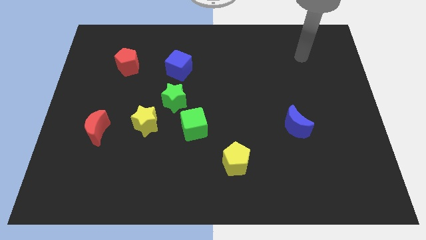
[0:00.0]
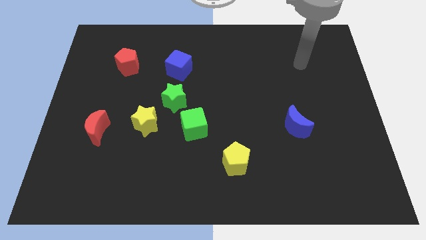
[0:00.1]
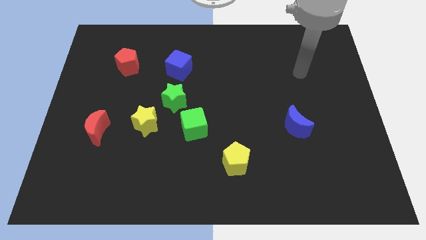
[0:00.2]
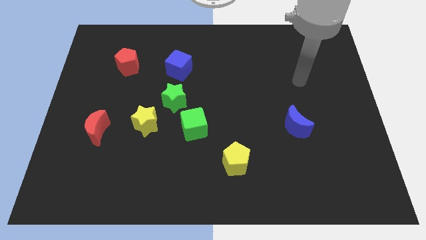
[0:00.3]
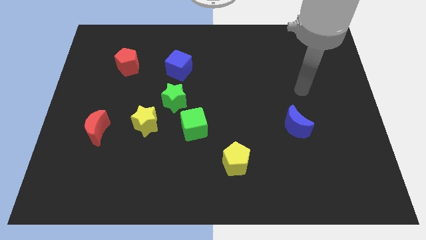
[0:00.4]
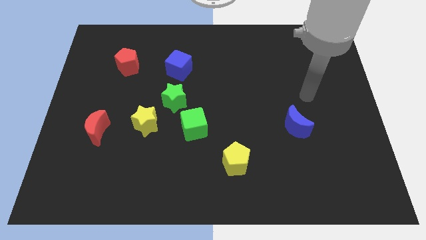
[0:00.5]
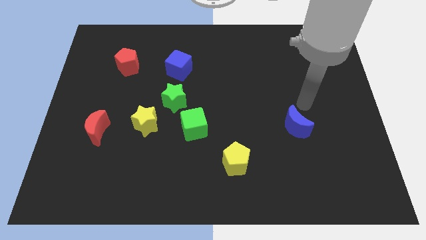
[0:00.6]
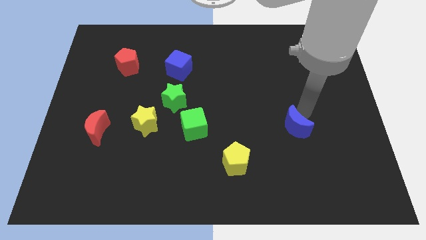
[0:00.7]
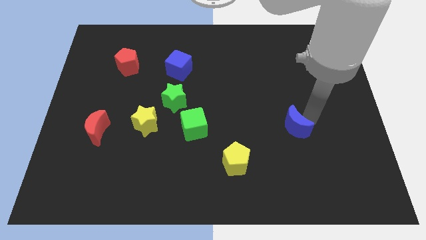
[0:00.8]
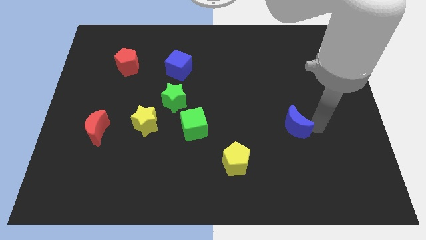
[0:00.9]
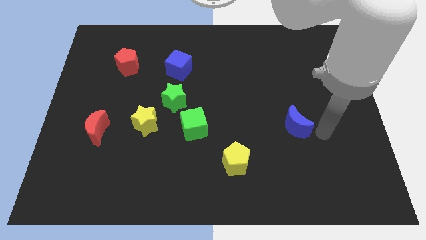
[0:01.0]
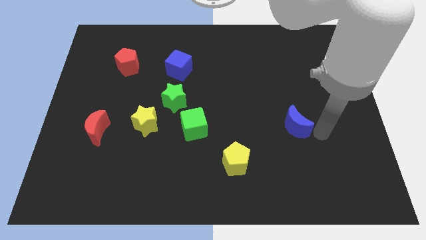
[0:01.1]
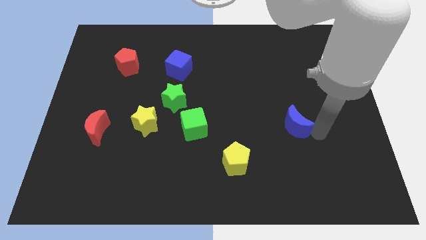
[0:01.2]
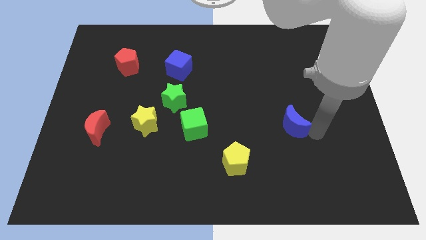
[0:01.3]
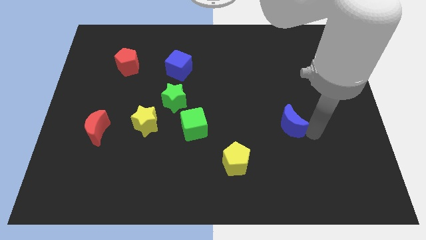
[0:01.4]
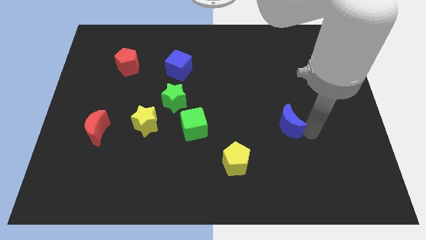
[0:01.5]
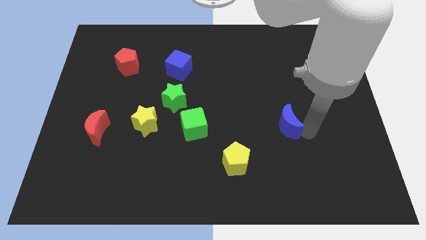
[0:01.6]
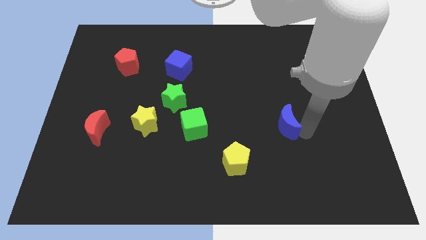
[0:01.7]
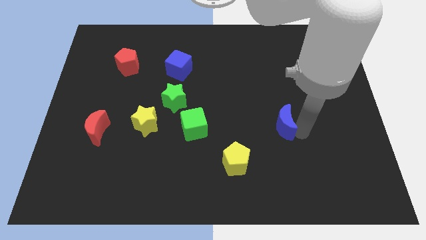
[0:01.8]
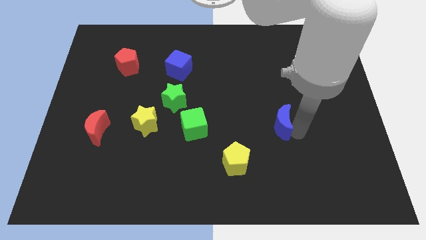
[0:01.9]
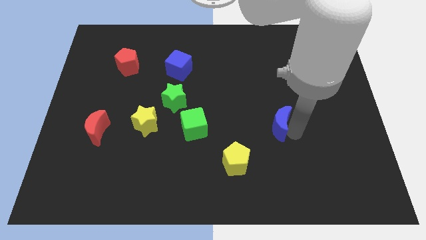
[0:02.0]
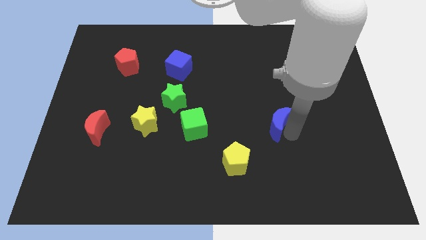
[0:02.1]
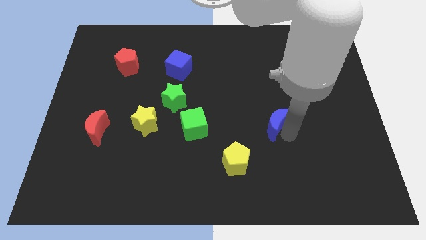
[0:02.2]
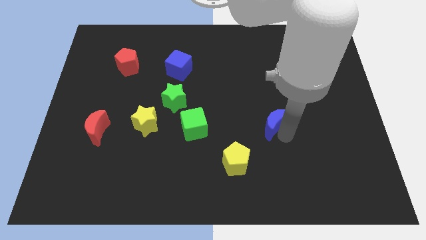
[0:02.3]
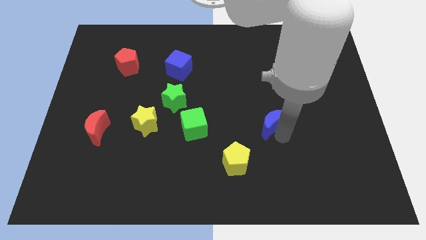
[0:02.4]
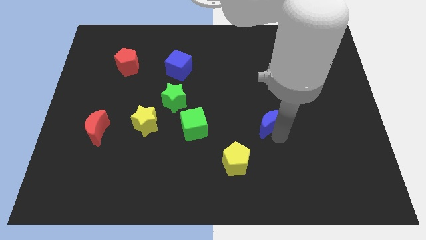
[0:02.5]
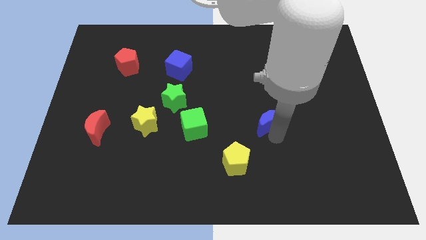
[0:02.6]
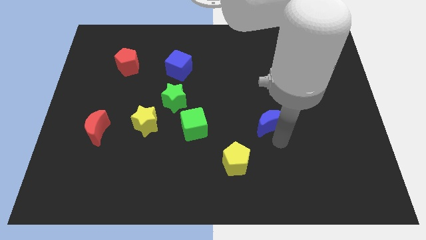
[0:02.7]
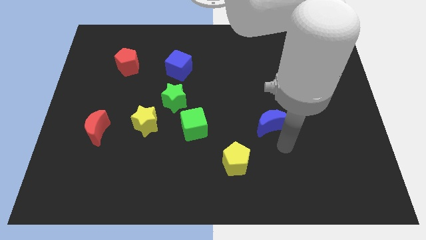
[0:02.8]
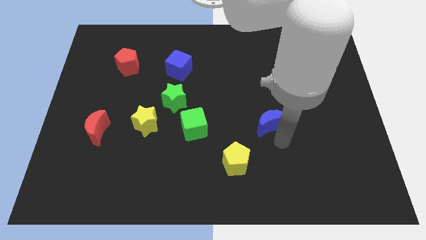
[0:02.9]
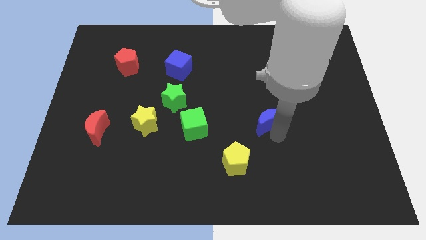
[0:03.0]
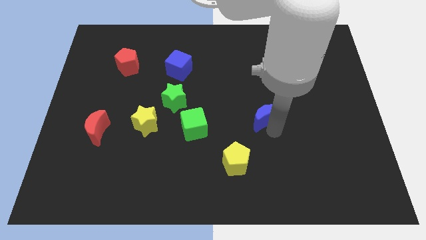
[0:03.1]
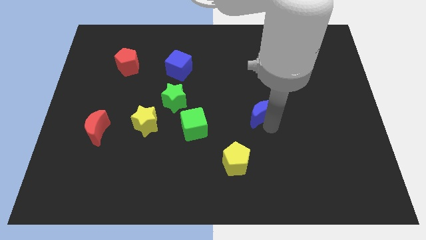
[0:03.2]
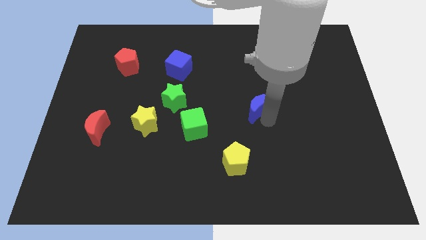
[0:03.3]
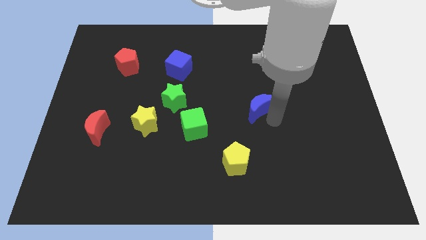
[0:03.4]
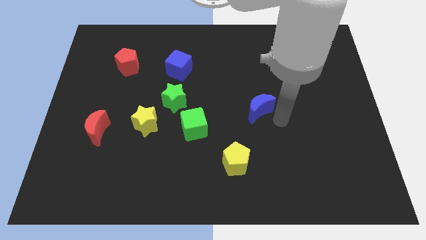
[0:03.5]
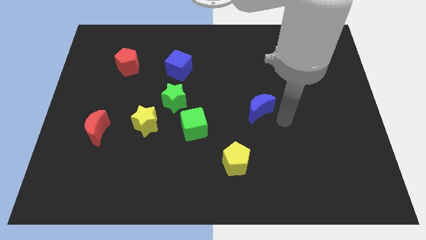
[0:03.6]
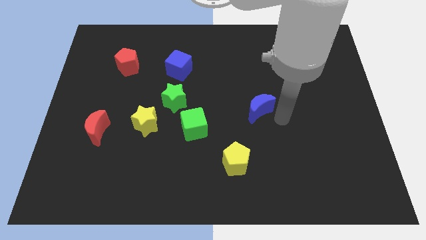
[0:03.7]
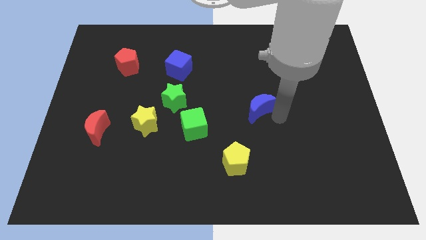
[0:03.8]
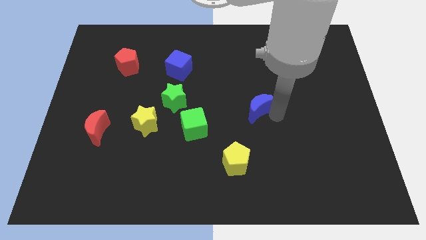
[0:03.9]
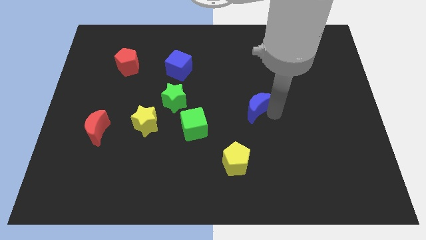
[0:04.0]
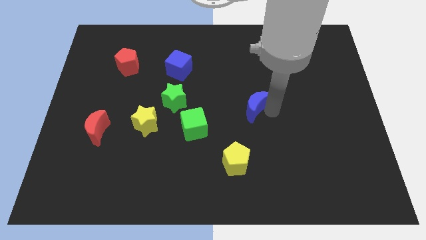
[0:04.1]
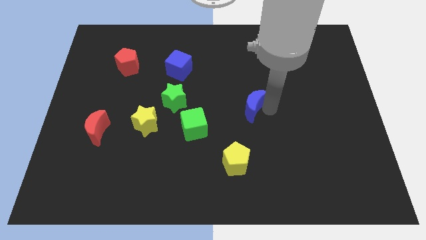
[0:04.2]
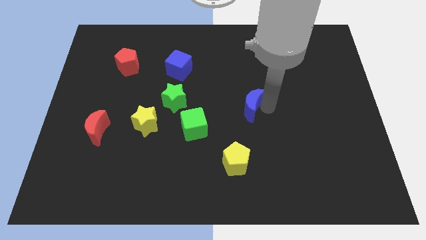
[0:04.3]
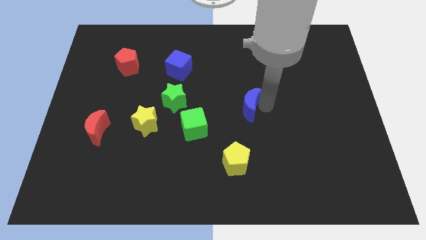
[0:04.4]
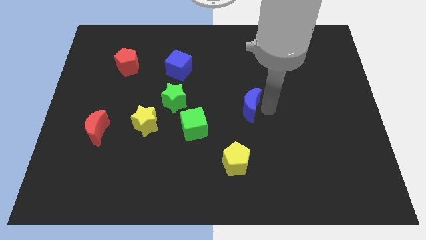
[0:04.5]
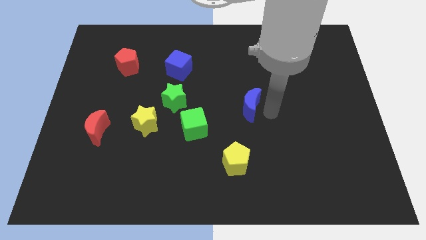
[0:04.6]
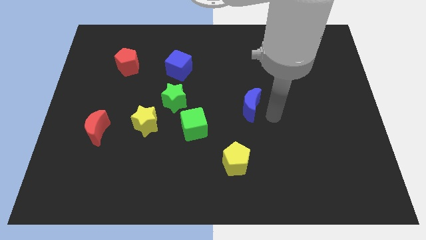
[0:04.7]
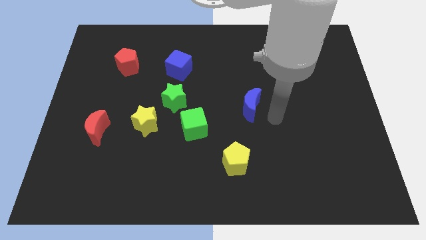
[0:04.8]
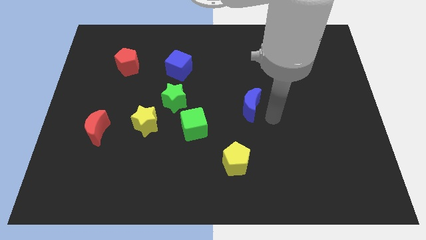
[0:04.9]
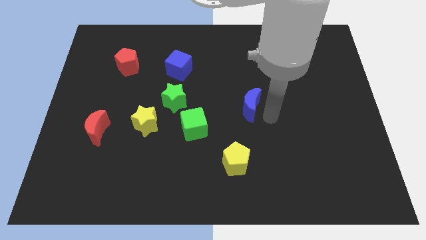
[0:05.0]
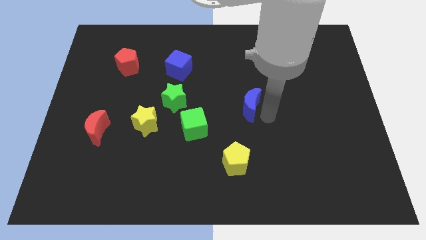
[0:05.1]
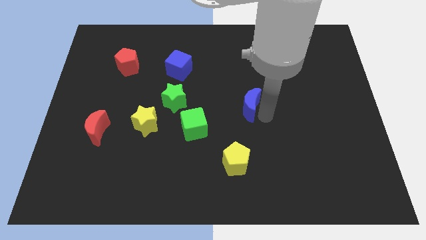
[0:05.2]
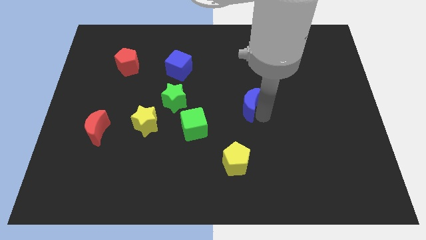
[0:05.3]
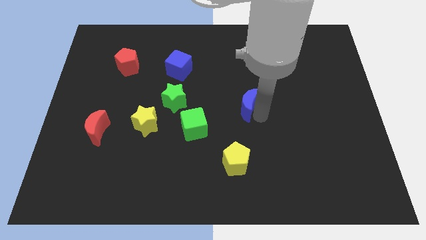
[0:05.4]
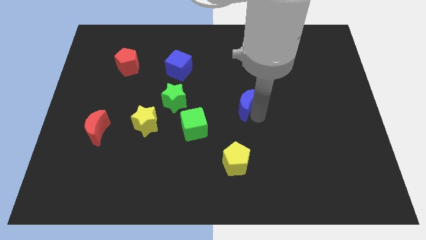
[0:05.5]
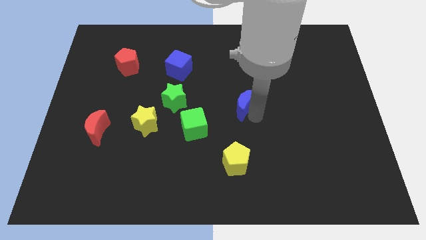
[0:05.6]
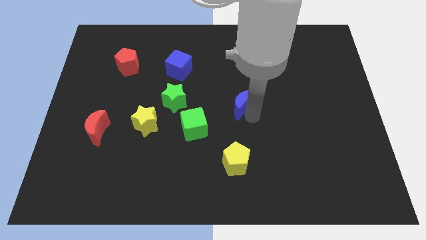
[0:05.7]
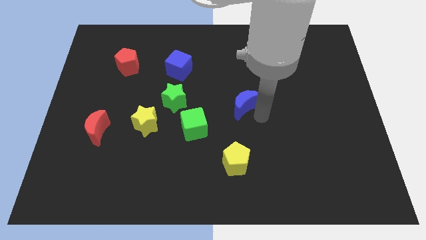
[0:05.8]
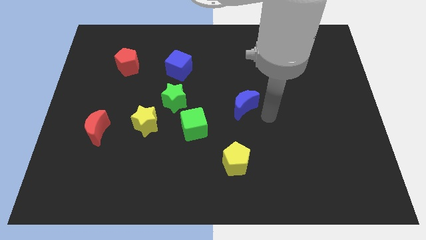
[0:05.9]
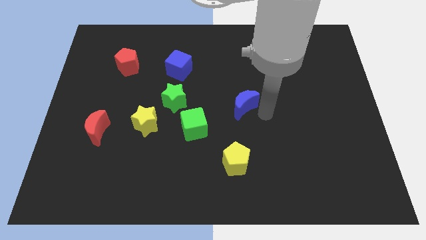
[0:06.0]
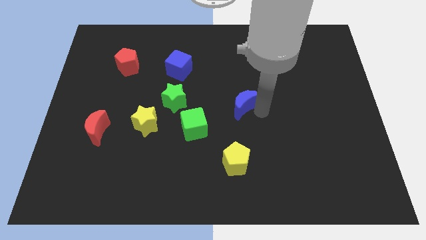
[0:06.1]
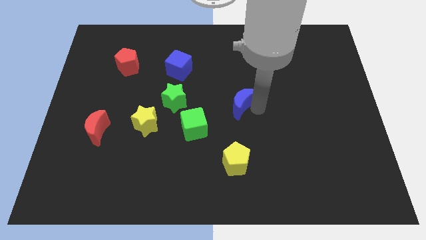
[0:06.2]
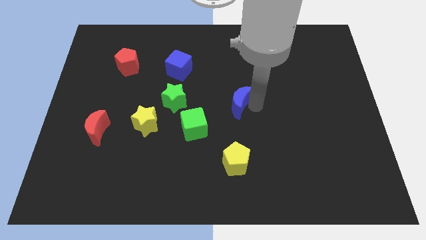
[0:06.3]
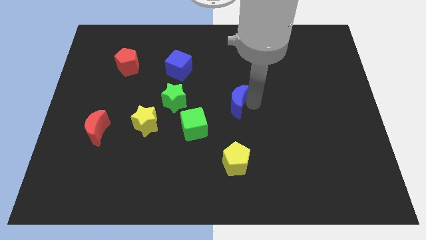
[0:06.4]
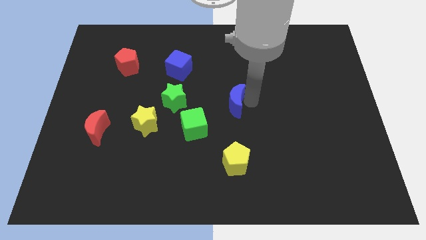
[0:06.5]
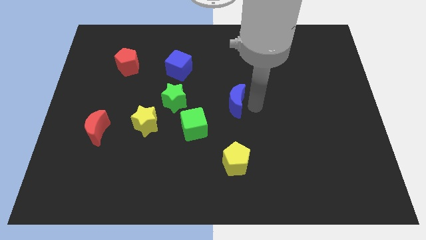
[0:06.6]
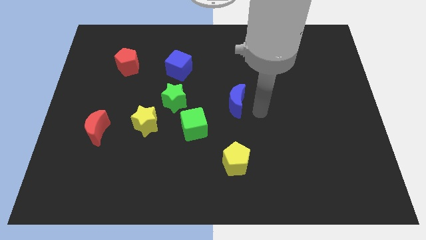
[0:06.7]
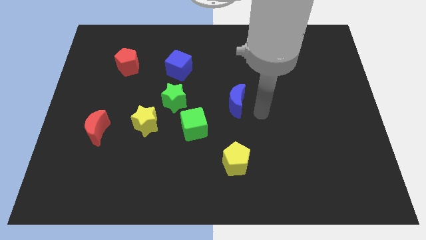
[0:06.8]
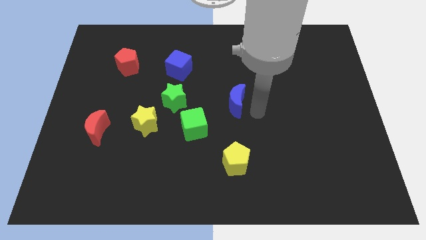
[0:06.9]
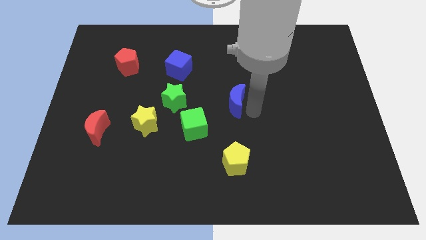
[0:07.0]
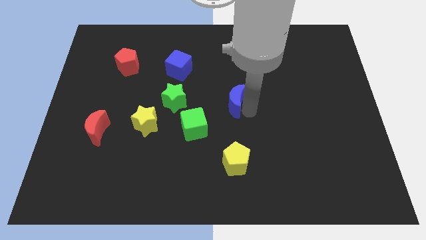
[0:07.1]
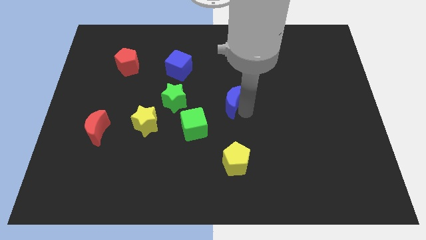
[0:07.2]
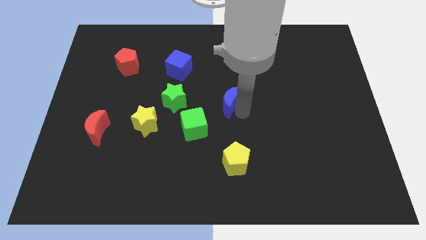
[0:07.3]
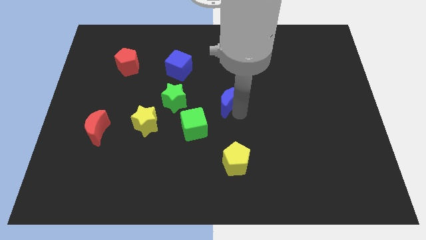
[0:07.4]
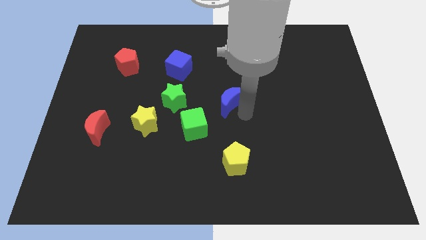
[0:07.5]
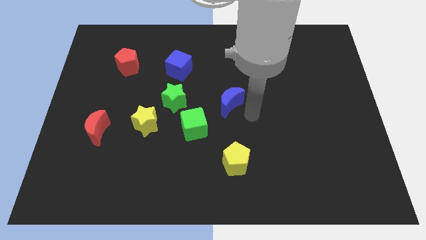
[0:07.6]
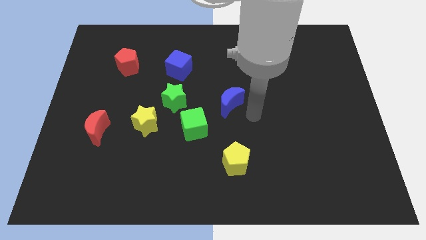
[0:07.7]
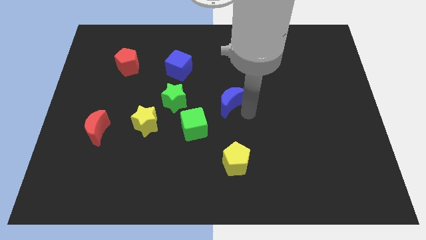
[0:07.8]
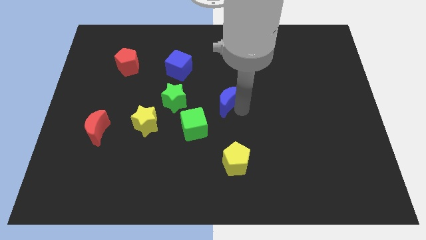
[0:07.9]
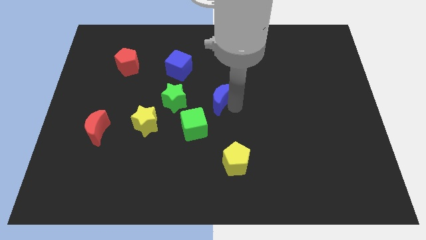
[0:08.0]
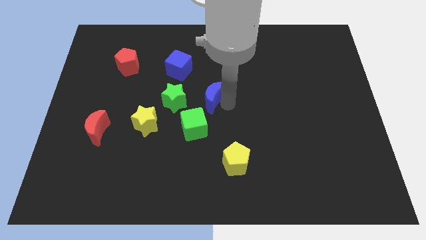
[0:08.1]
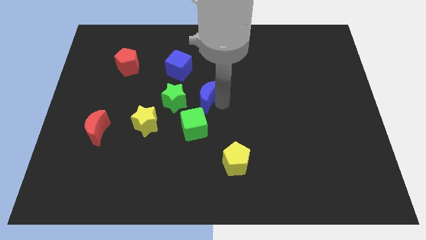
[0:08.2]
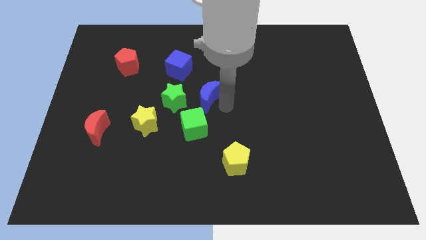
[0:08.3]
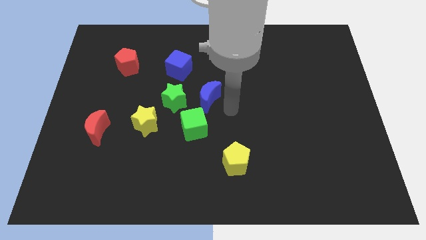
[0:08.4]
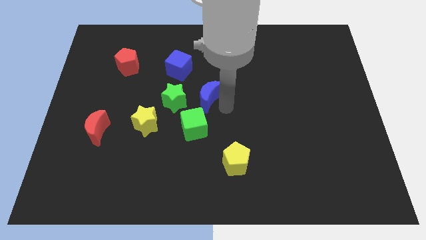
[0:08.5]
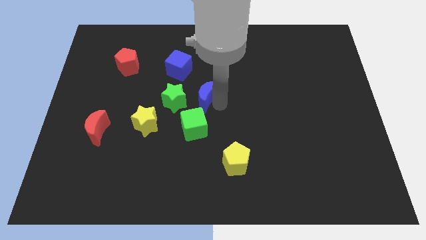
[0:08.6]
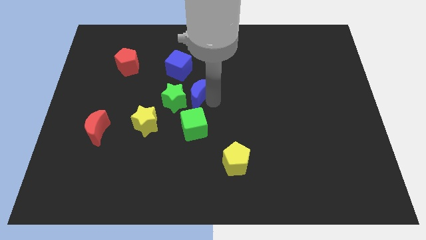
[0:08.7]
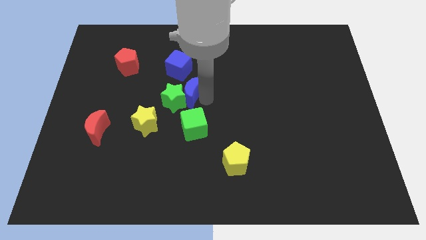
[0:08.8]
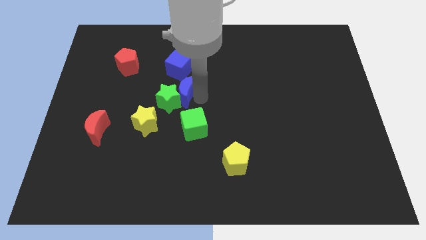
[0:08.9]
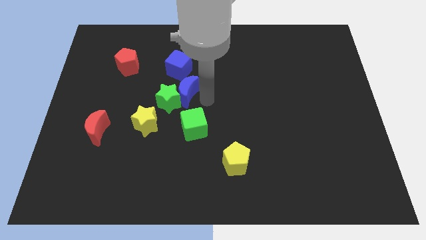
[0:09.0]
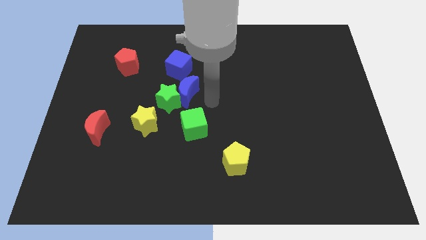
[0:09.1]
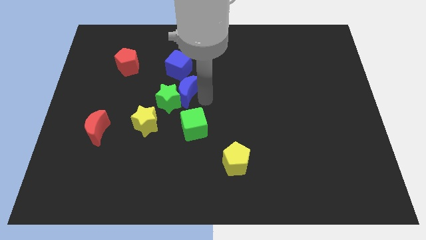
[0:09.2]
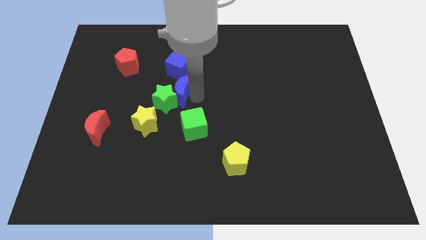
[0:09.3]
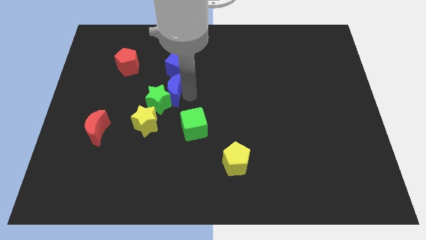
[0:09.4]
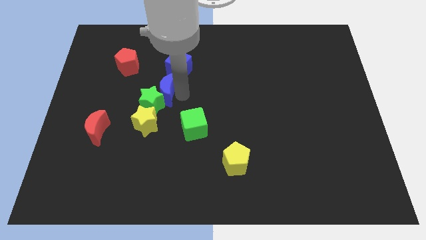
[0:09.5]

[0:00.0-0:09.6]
move the blue moon to the bottom left side of the blue cube
